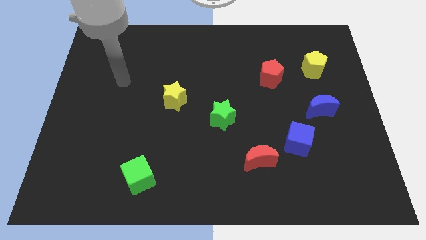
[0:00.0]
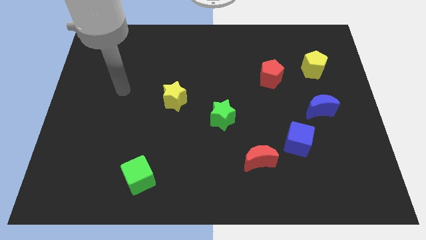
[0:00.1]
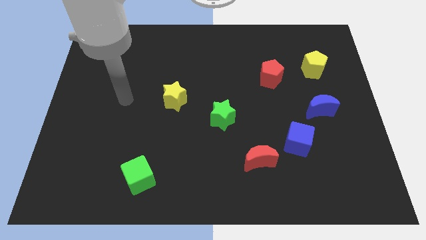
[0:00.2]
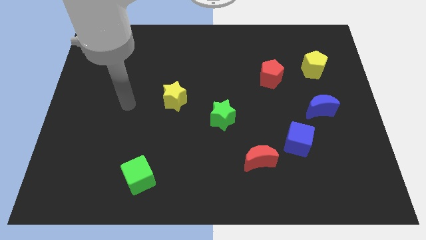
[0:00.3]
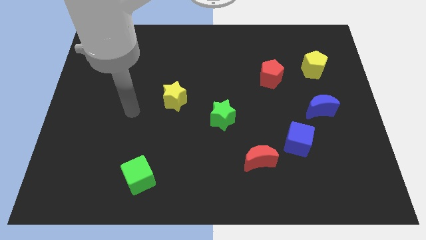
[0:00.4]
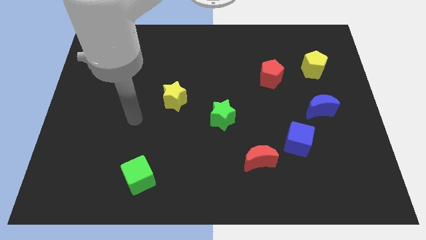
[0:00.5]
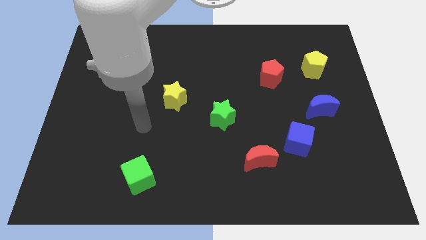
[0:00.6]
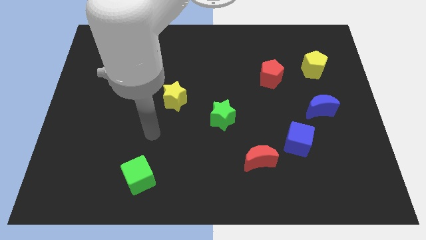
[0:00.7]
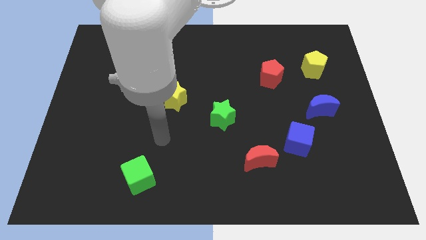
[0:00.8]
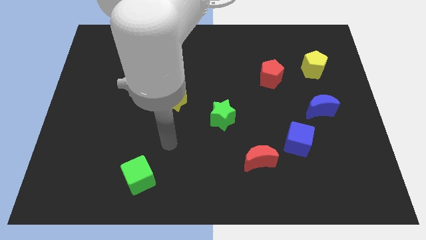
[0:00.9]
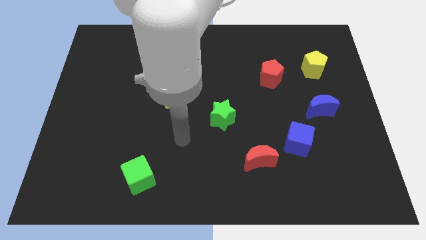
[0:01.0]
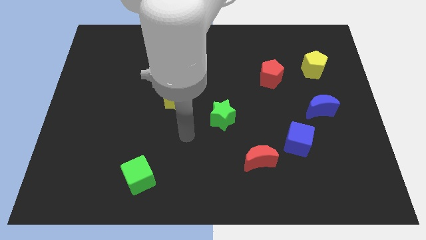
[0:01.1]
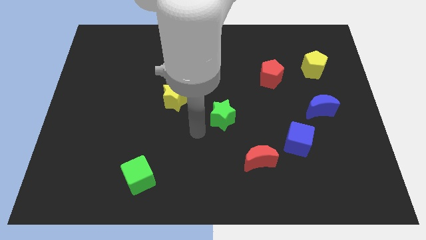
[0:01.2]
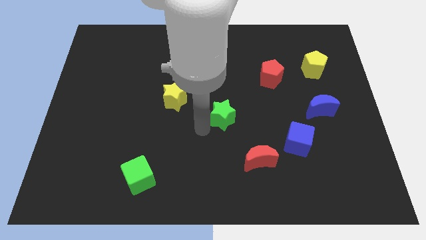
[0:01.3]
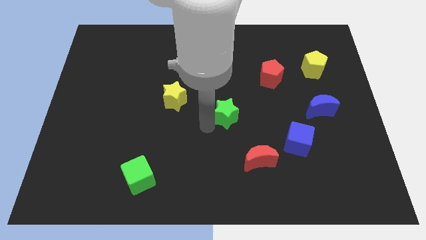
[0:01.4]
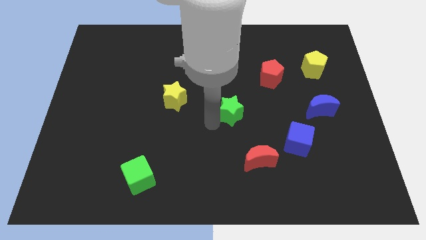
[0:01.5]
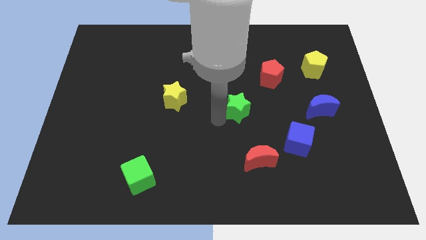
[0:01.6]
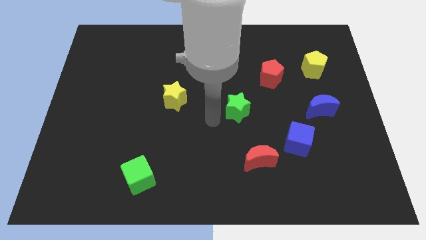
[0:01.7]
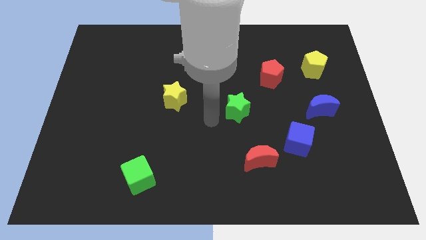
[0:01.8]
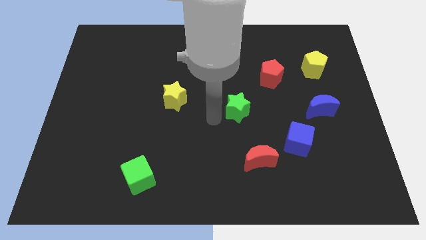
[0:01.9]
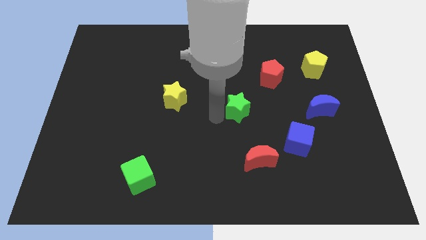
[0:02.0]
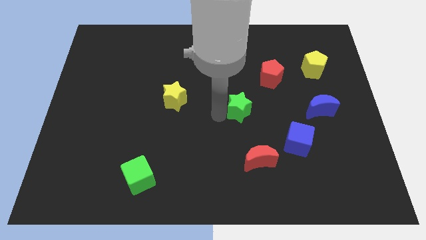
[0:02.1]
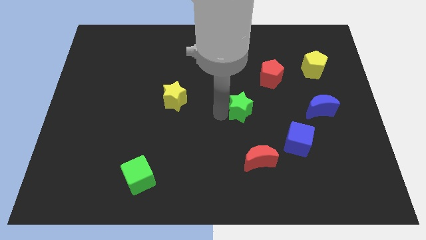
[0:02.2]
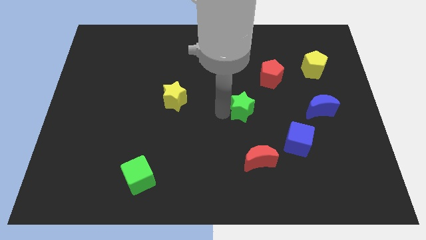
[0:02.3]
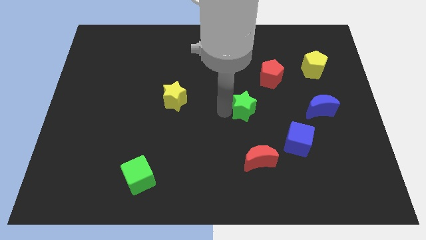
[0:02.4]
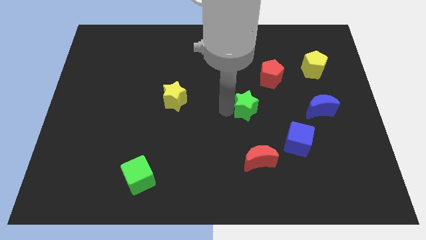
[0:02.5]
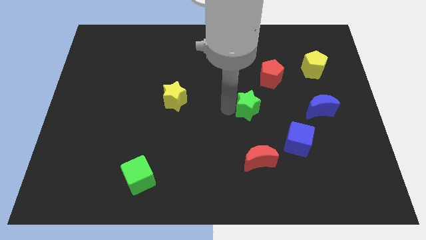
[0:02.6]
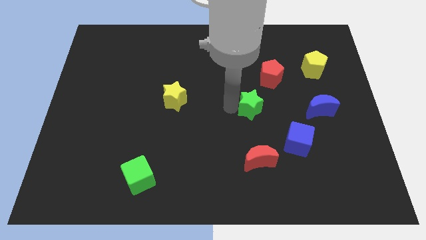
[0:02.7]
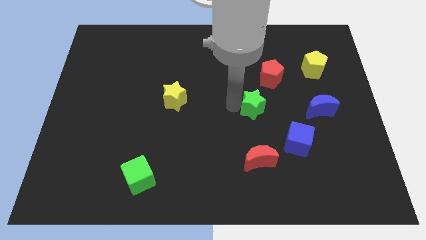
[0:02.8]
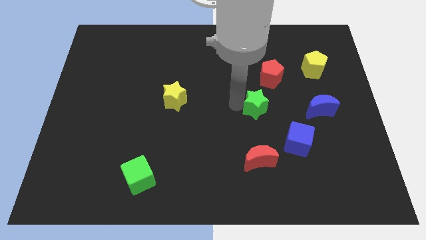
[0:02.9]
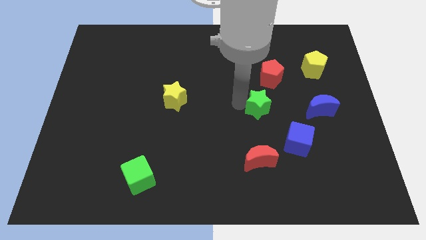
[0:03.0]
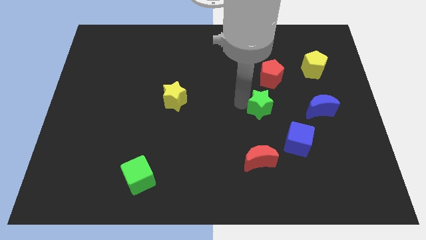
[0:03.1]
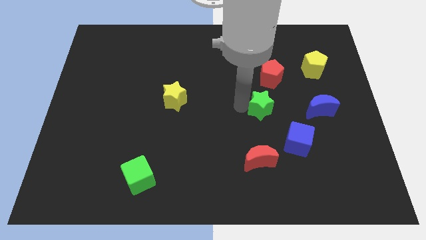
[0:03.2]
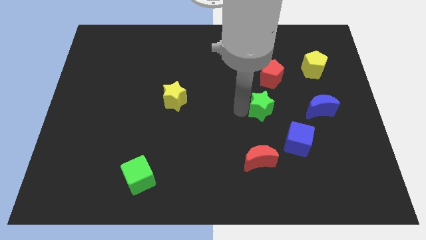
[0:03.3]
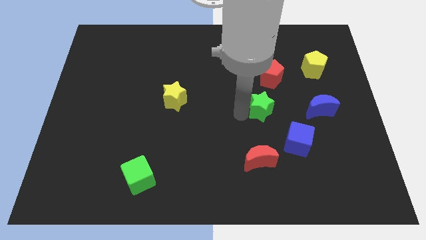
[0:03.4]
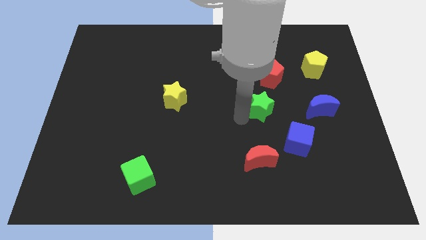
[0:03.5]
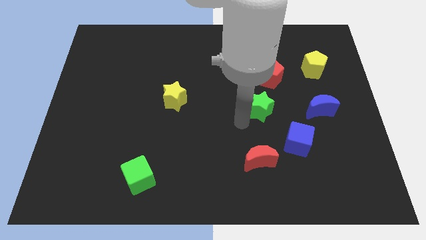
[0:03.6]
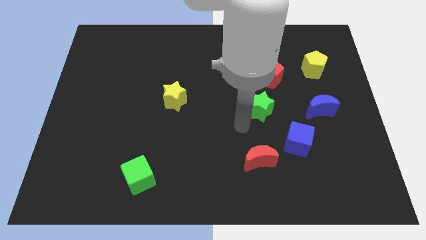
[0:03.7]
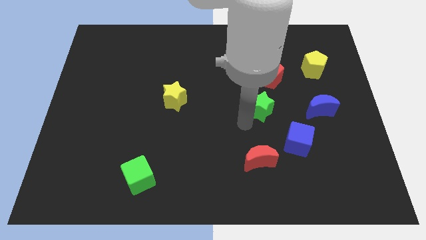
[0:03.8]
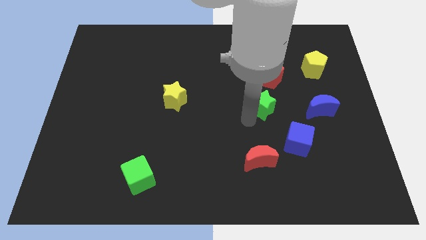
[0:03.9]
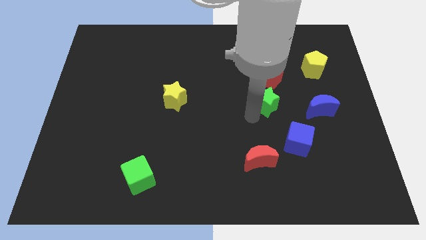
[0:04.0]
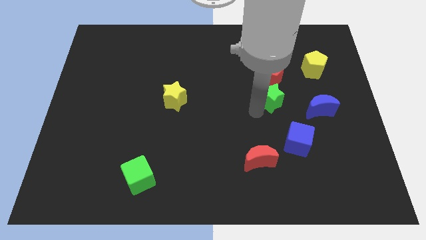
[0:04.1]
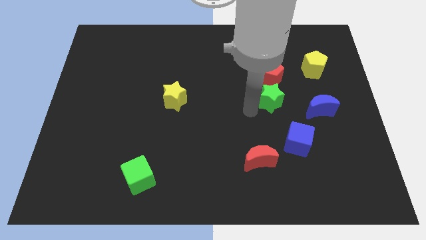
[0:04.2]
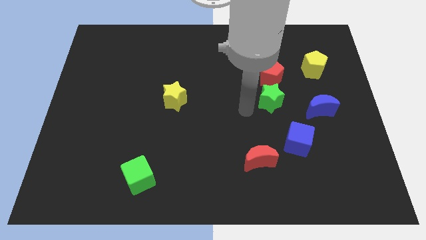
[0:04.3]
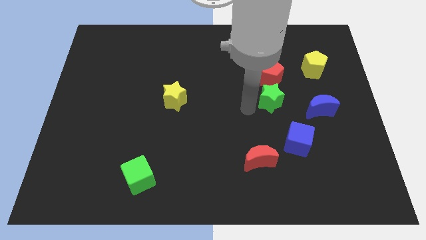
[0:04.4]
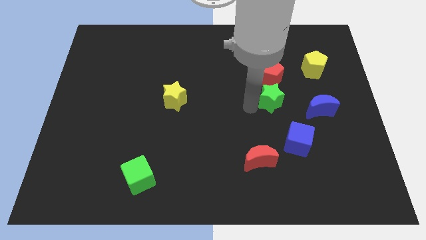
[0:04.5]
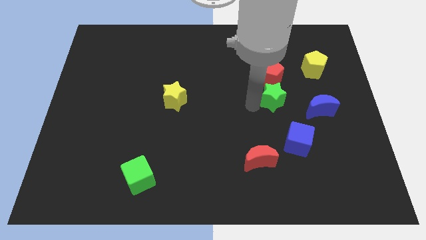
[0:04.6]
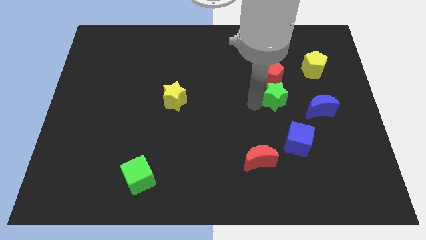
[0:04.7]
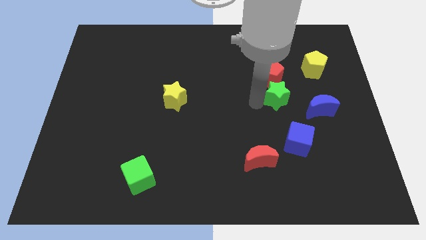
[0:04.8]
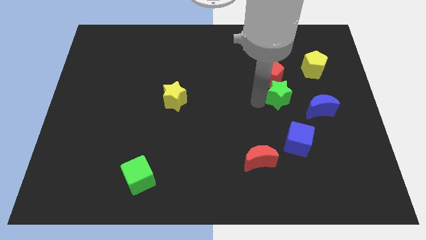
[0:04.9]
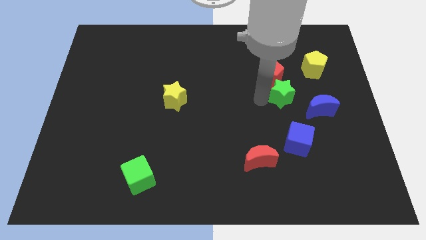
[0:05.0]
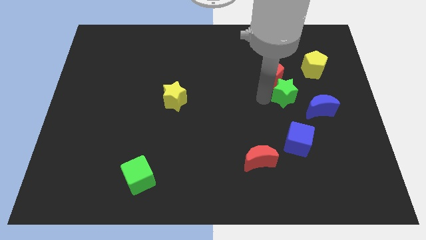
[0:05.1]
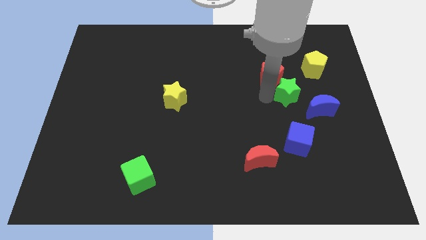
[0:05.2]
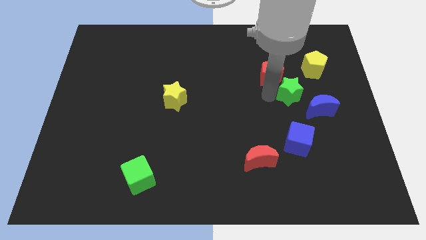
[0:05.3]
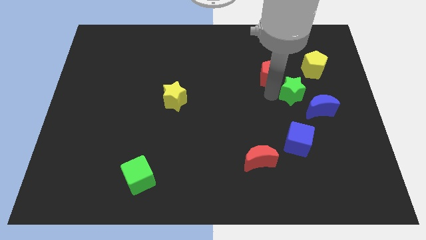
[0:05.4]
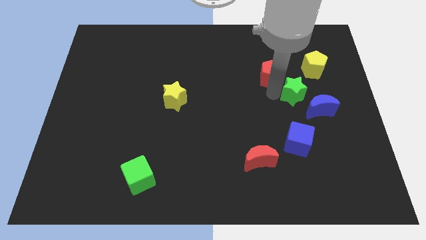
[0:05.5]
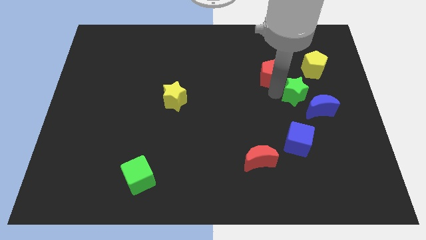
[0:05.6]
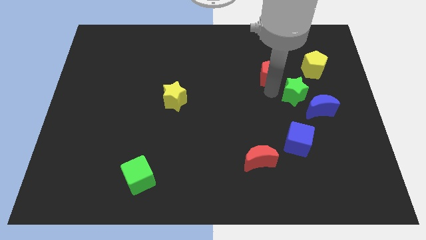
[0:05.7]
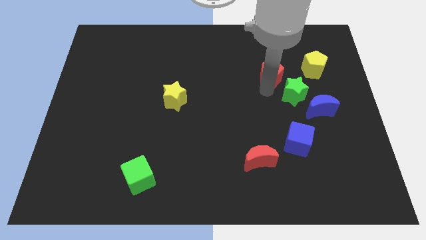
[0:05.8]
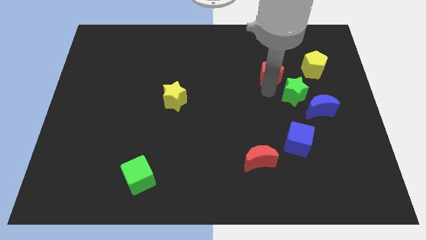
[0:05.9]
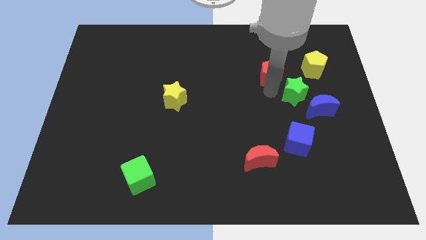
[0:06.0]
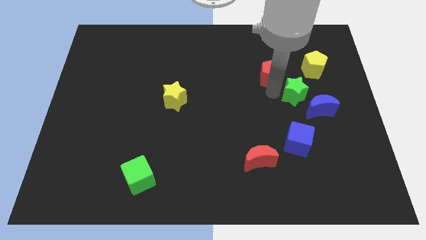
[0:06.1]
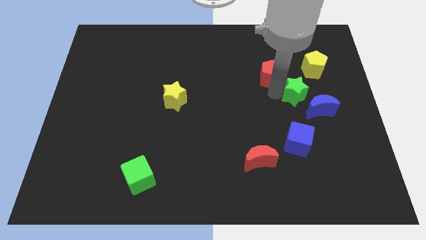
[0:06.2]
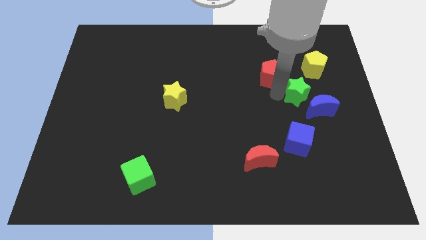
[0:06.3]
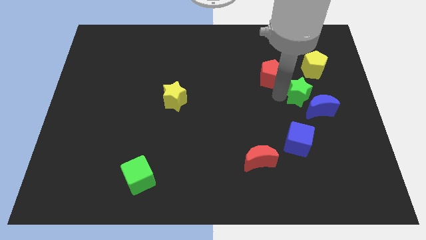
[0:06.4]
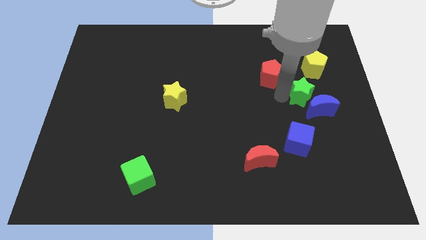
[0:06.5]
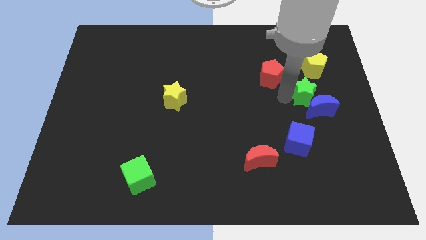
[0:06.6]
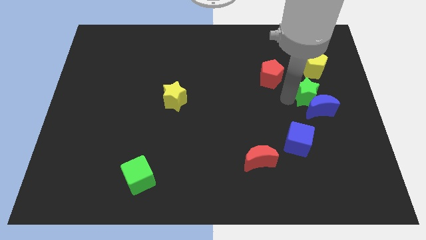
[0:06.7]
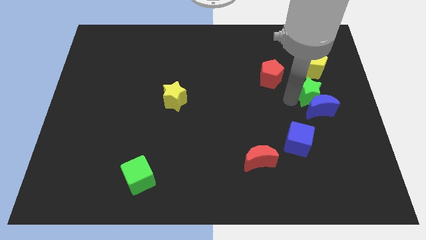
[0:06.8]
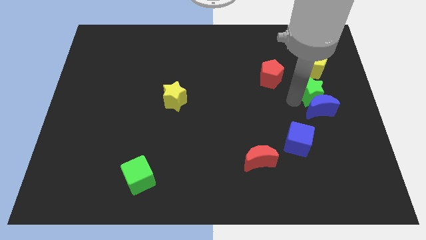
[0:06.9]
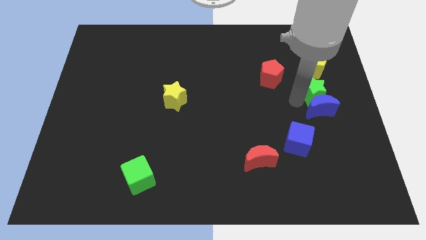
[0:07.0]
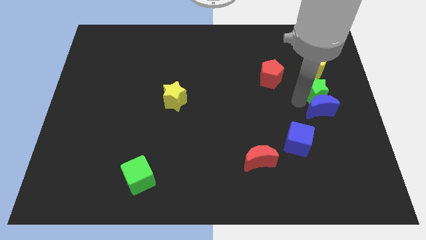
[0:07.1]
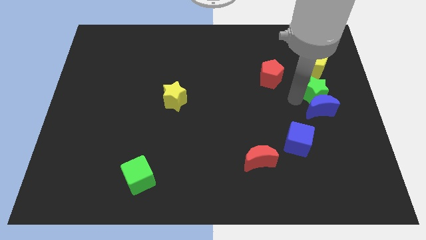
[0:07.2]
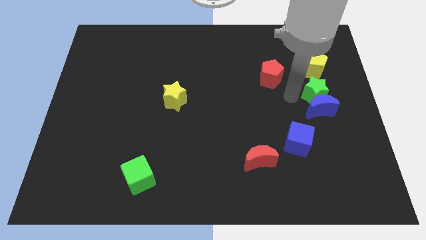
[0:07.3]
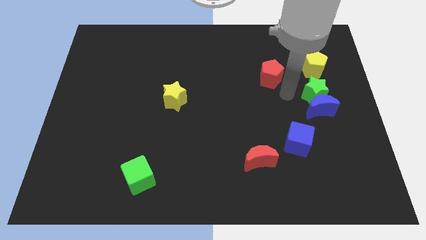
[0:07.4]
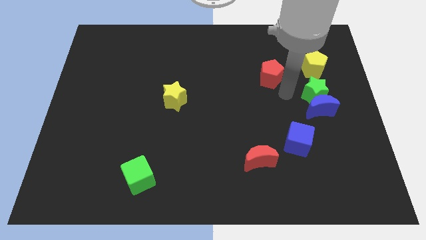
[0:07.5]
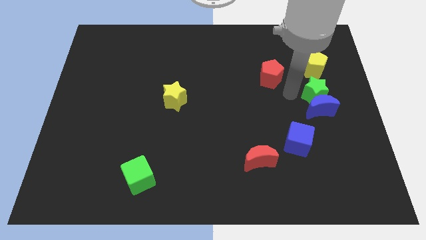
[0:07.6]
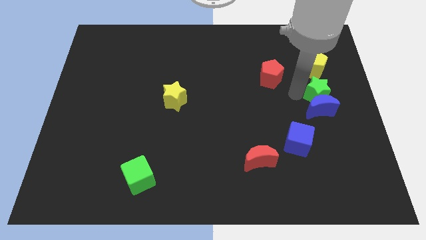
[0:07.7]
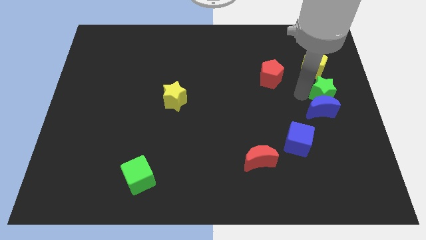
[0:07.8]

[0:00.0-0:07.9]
slide the green star to the right side
